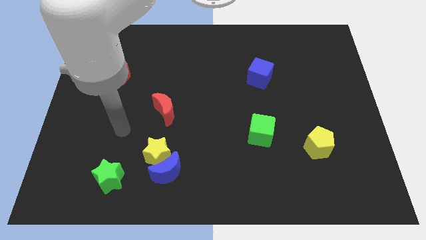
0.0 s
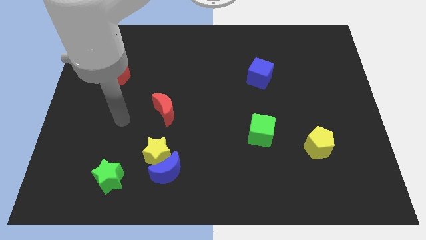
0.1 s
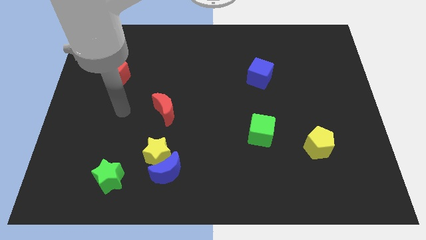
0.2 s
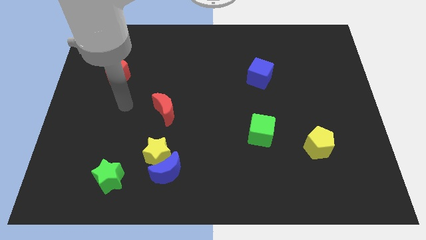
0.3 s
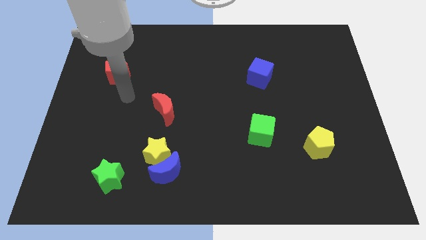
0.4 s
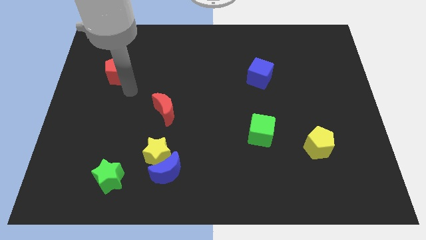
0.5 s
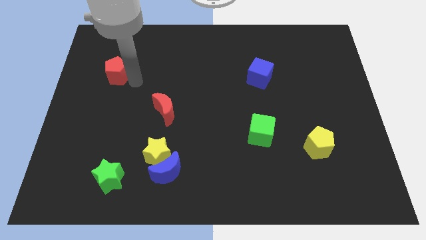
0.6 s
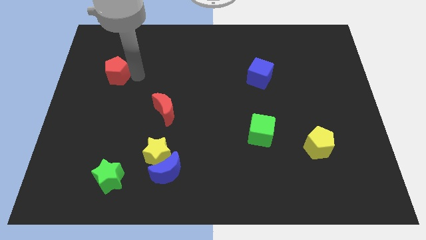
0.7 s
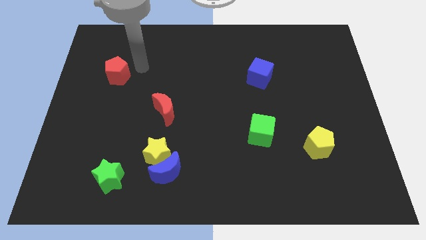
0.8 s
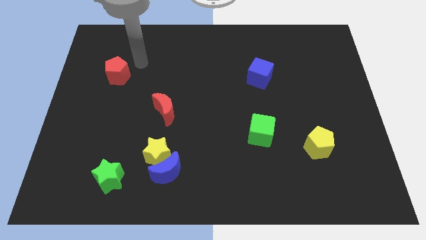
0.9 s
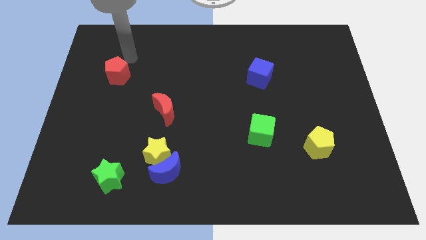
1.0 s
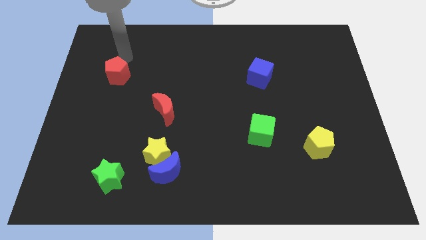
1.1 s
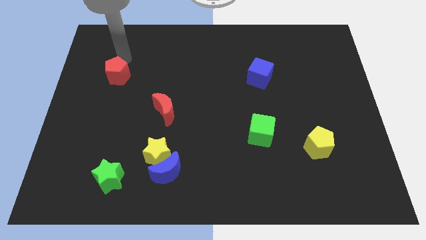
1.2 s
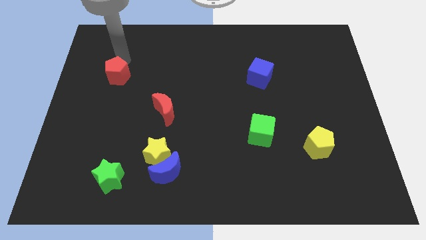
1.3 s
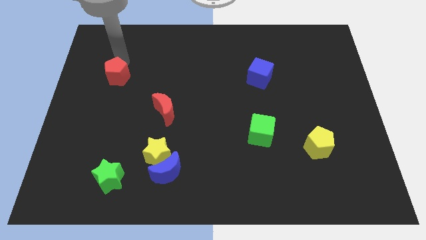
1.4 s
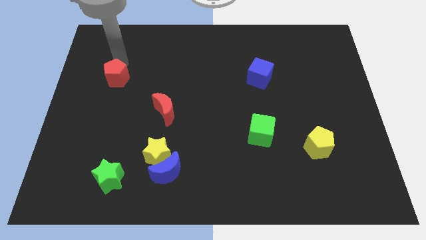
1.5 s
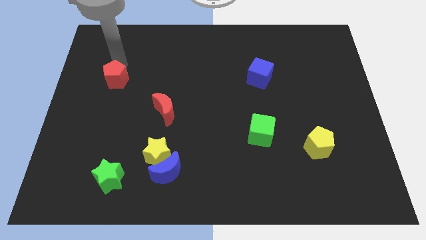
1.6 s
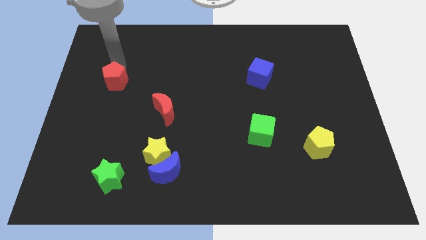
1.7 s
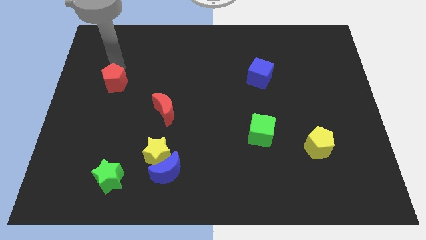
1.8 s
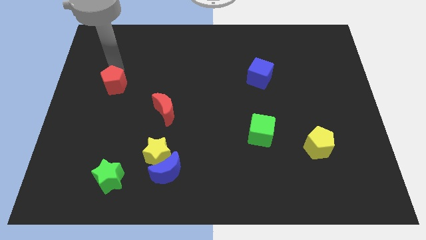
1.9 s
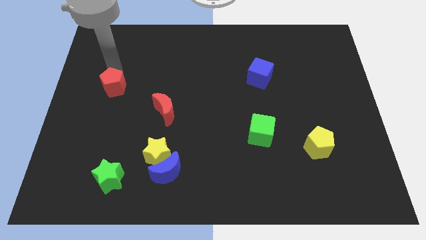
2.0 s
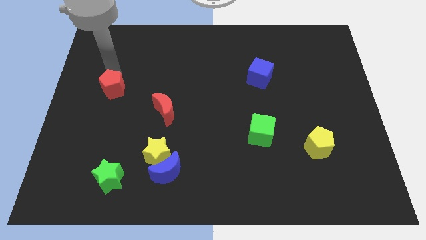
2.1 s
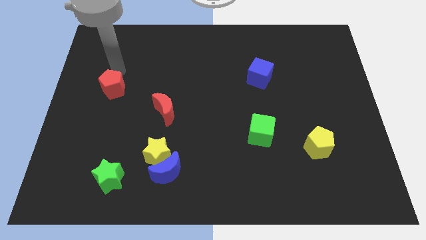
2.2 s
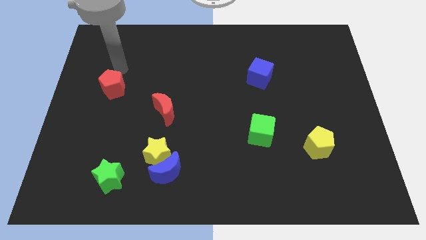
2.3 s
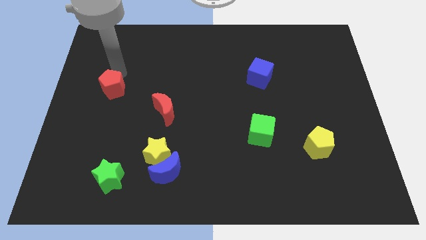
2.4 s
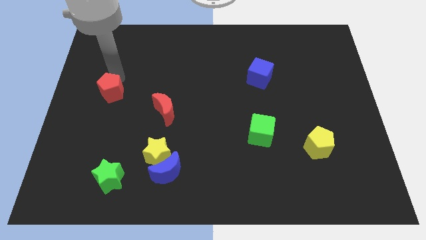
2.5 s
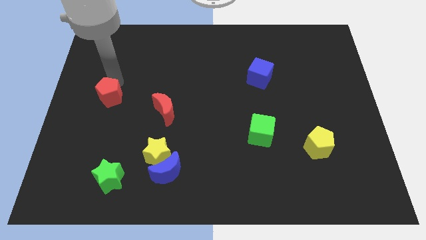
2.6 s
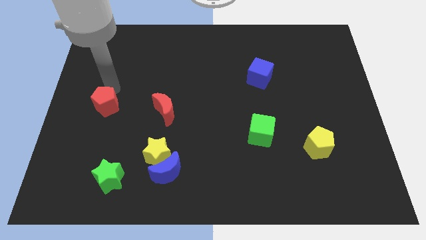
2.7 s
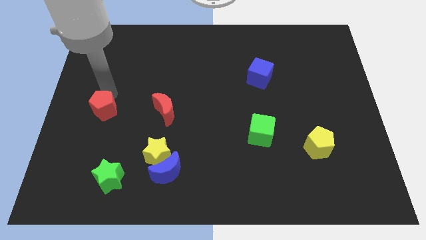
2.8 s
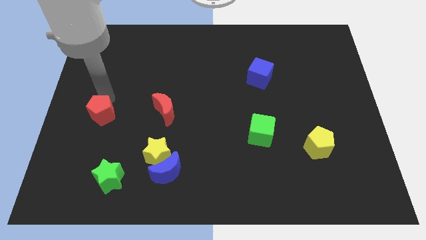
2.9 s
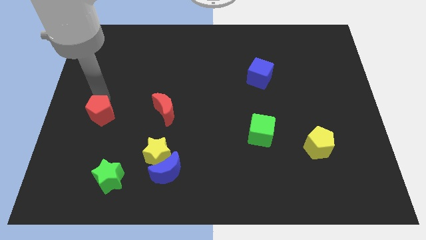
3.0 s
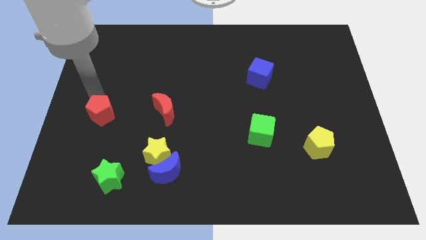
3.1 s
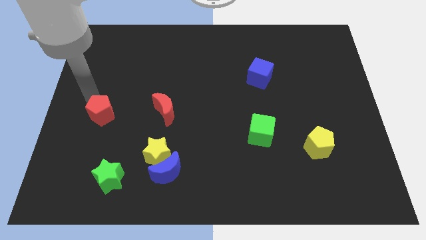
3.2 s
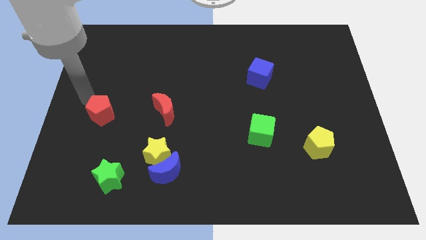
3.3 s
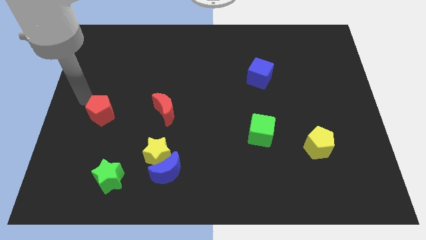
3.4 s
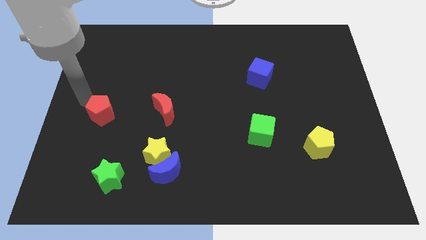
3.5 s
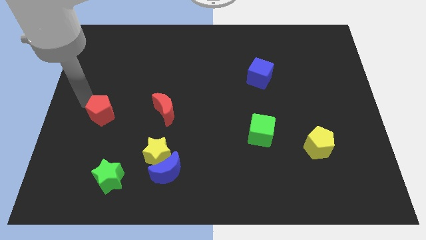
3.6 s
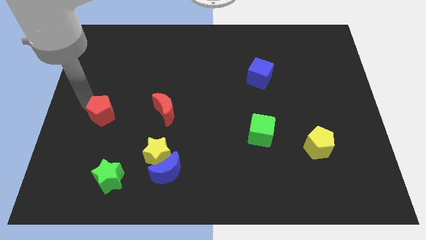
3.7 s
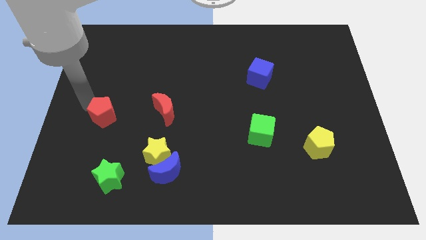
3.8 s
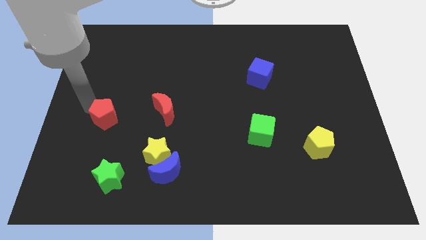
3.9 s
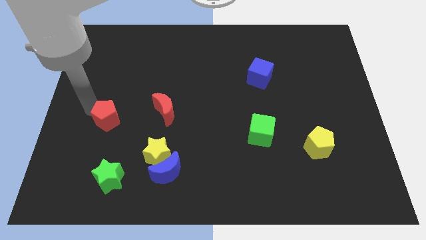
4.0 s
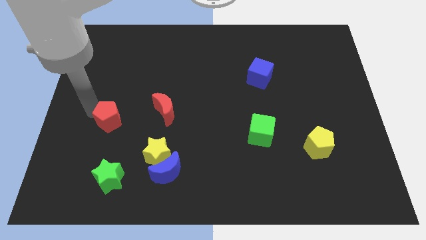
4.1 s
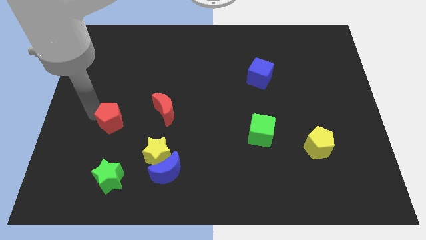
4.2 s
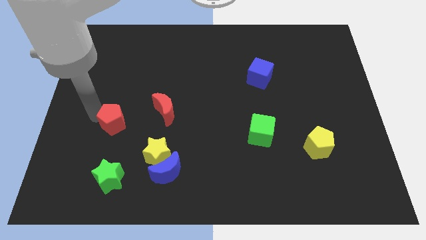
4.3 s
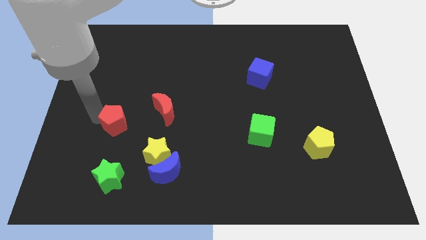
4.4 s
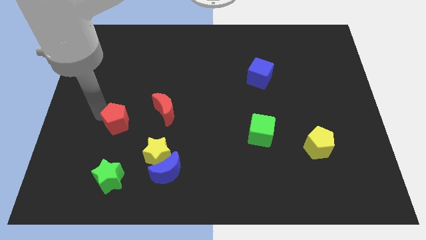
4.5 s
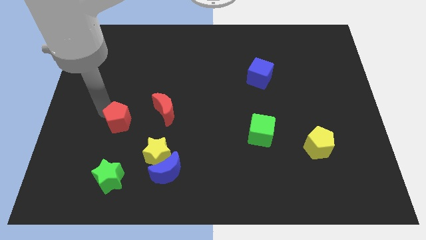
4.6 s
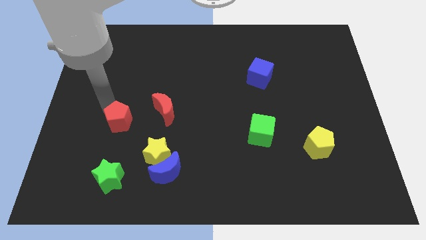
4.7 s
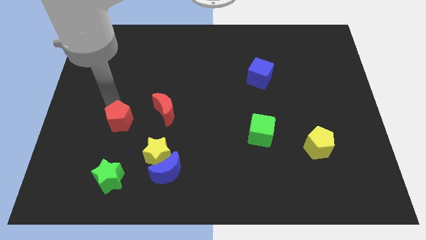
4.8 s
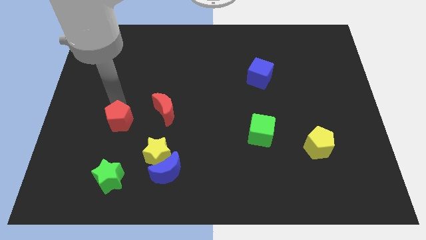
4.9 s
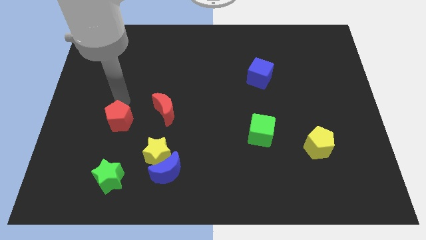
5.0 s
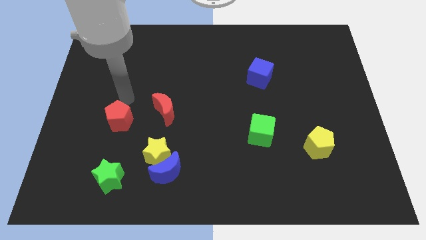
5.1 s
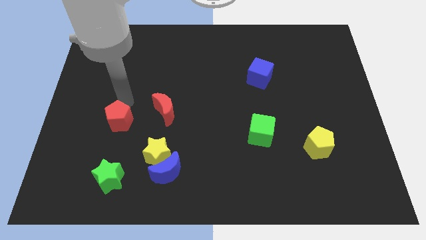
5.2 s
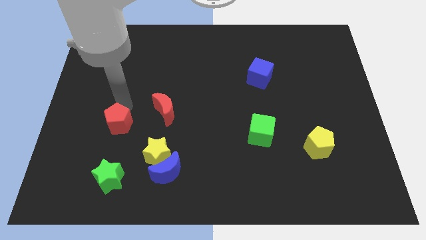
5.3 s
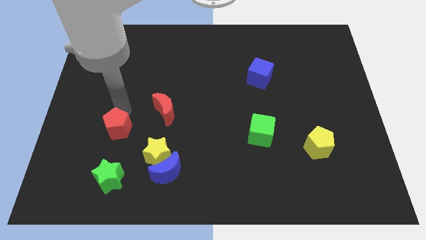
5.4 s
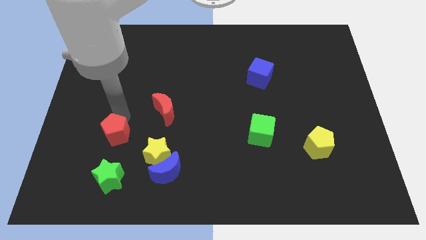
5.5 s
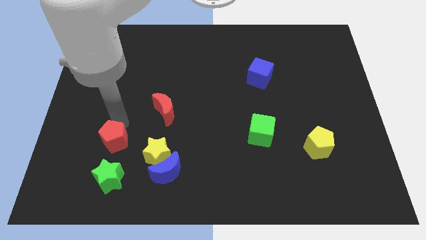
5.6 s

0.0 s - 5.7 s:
slide the red pentagon left of the yellow star

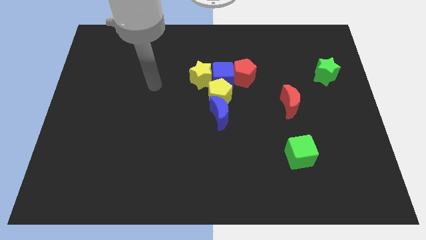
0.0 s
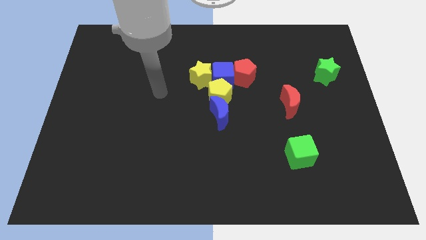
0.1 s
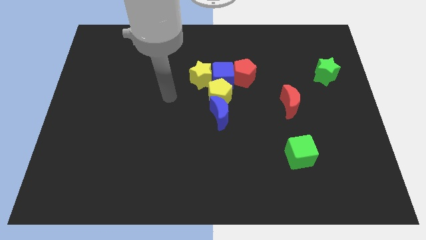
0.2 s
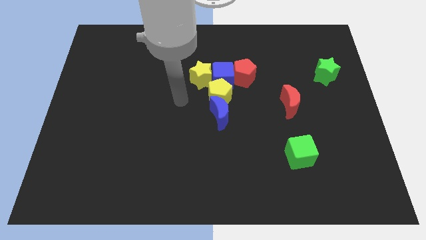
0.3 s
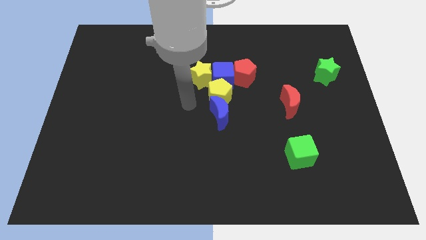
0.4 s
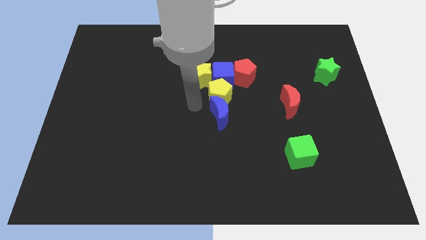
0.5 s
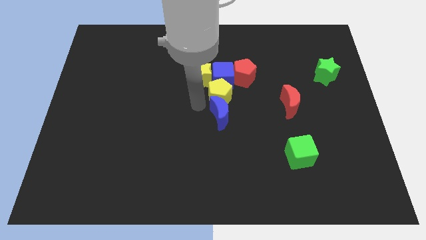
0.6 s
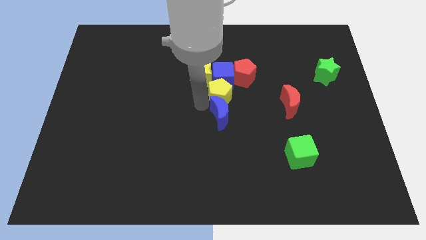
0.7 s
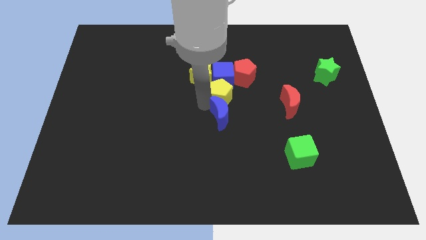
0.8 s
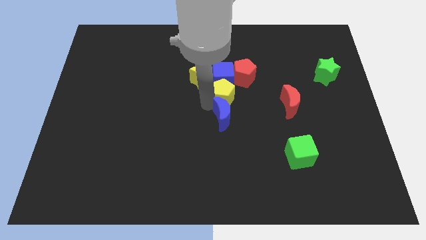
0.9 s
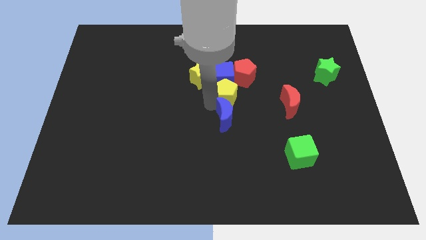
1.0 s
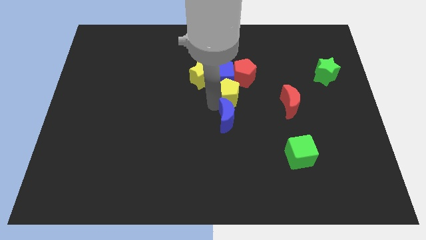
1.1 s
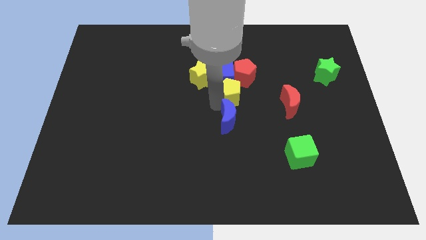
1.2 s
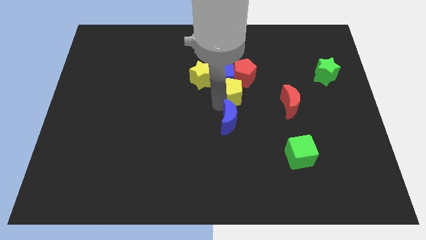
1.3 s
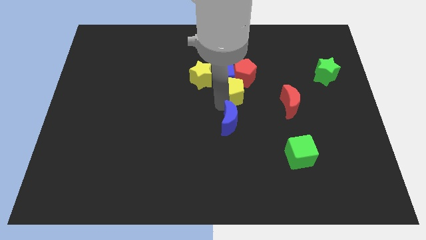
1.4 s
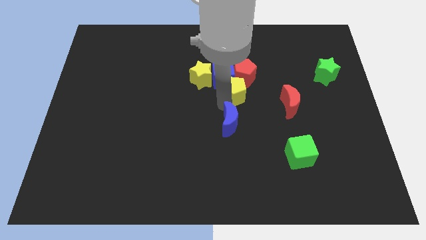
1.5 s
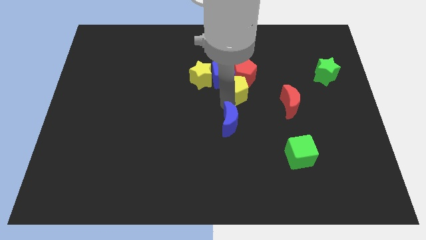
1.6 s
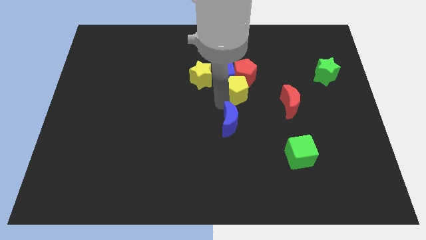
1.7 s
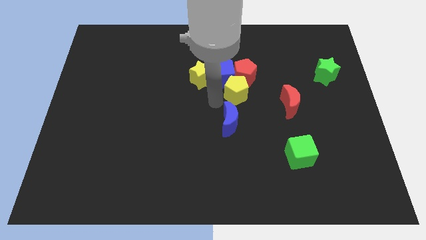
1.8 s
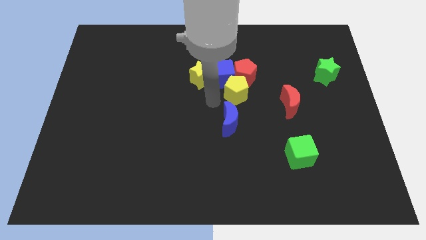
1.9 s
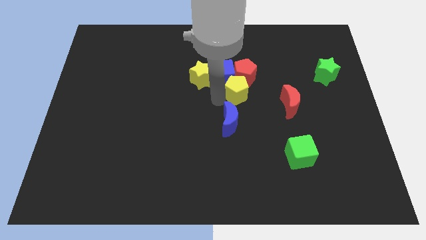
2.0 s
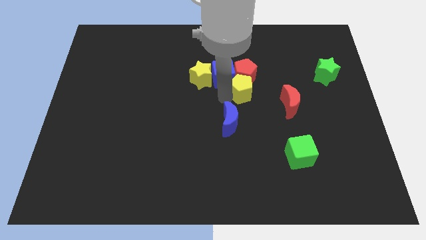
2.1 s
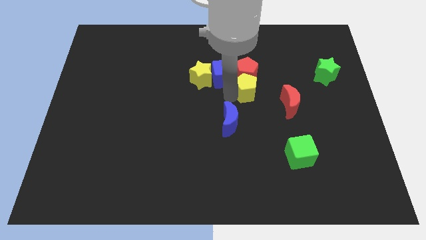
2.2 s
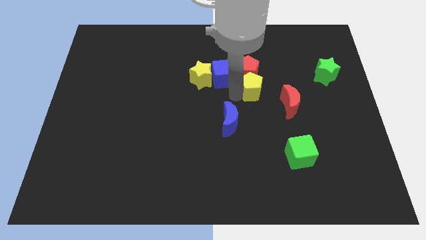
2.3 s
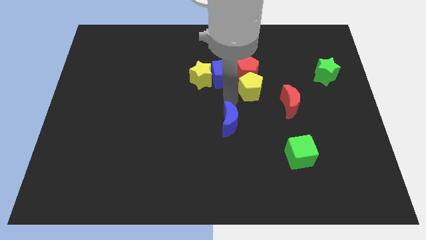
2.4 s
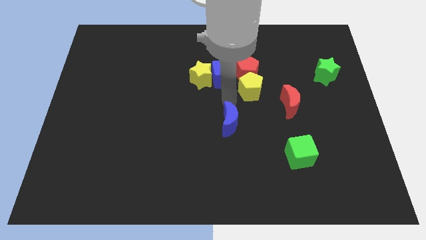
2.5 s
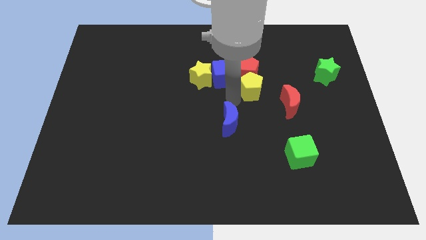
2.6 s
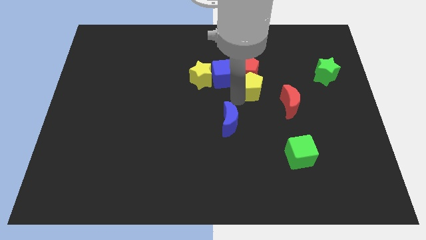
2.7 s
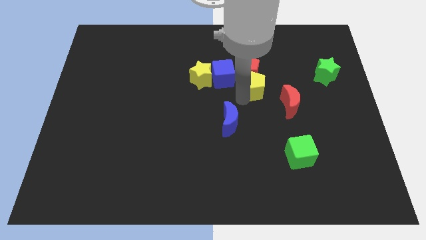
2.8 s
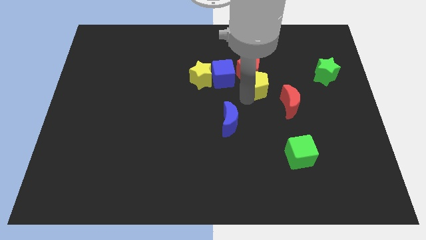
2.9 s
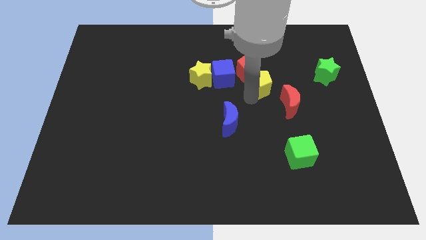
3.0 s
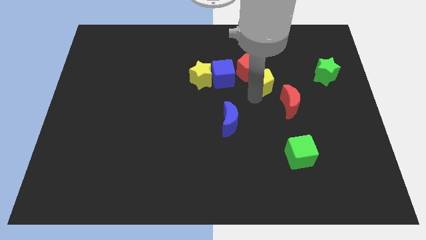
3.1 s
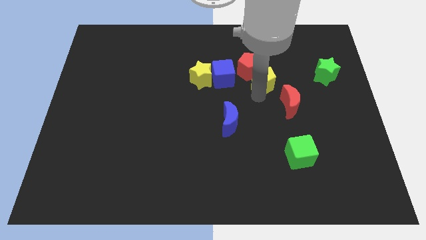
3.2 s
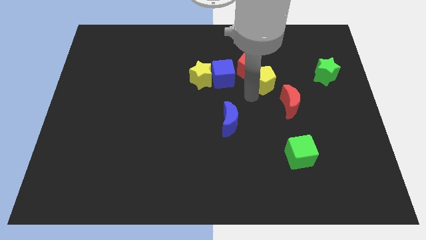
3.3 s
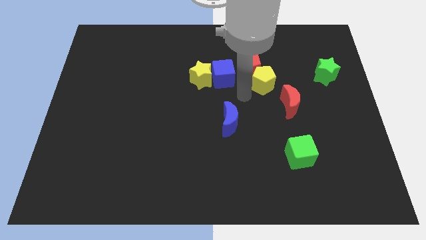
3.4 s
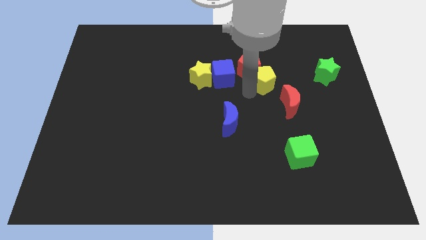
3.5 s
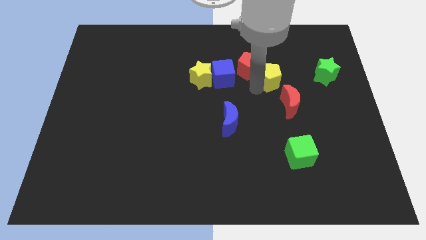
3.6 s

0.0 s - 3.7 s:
slide the yellow pentagon to the right of the red pentagon
